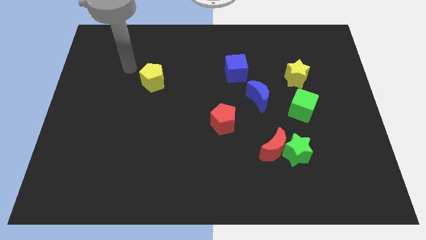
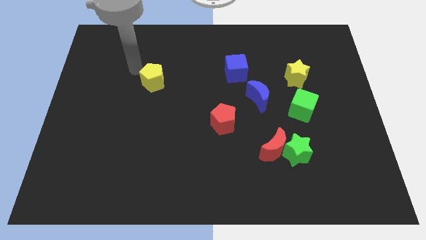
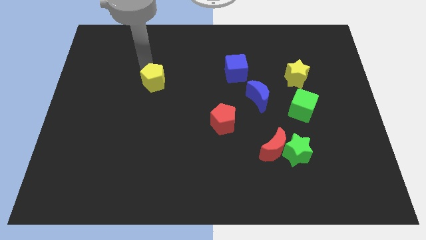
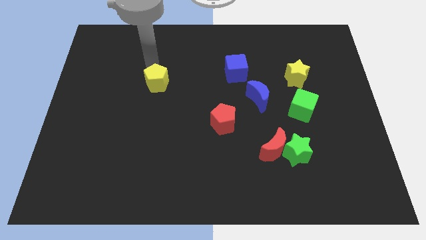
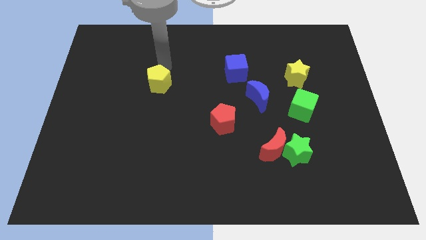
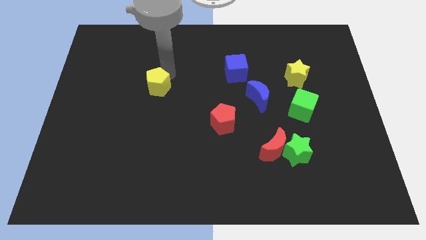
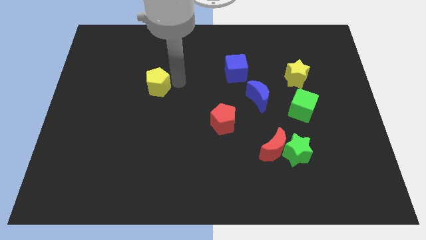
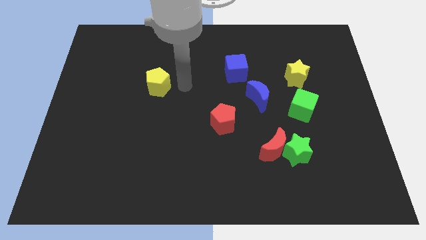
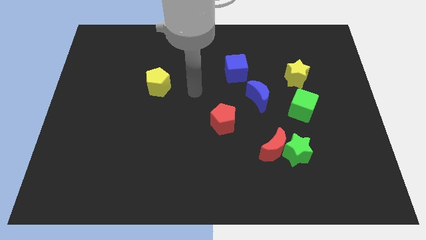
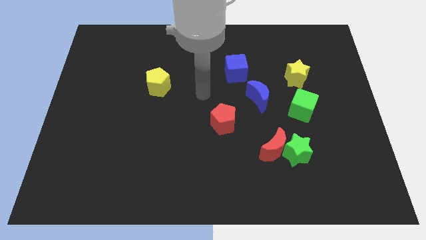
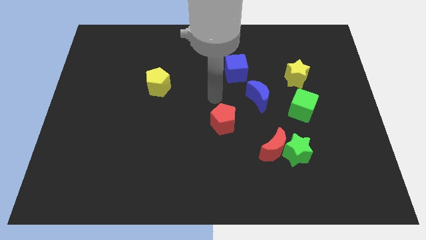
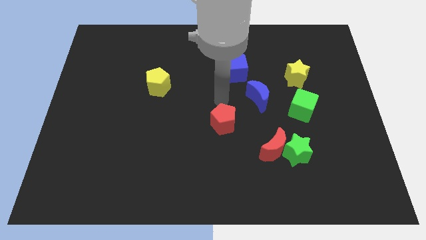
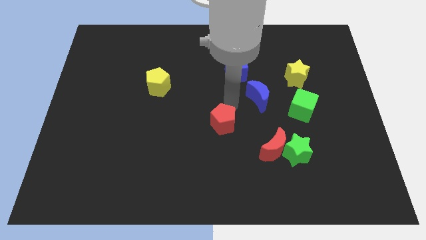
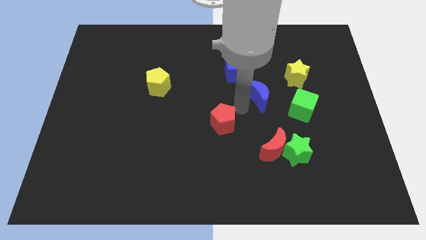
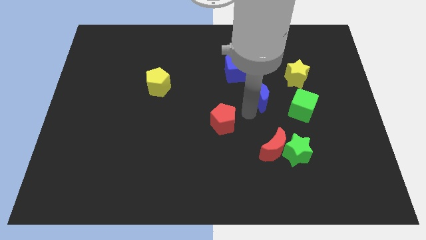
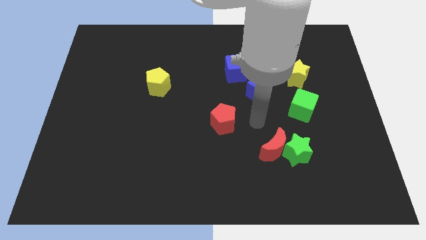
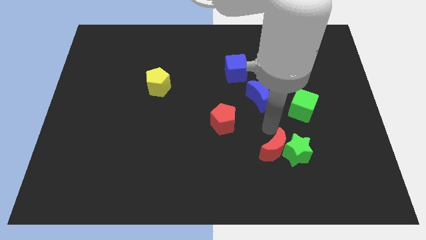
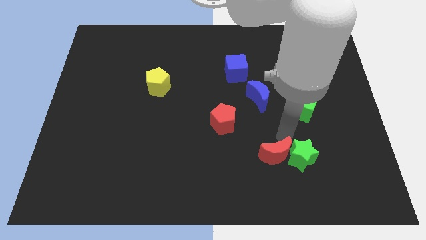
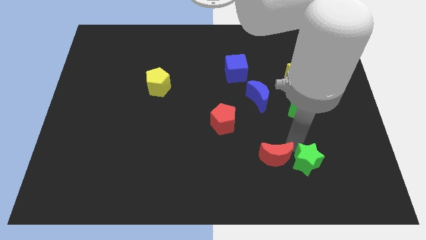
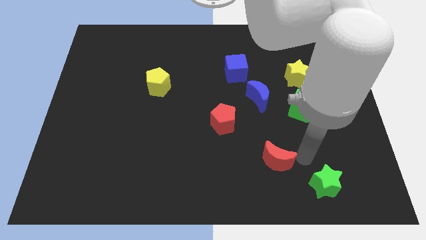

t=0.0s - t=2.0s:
pull the red moon apart from the green star

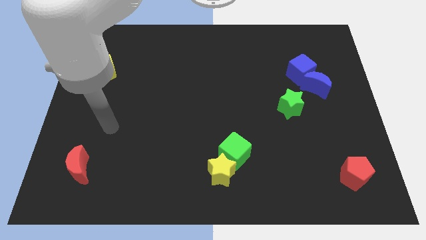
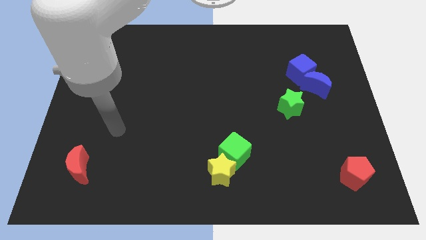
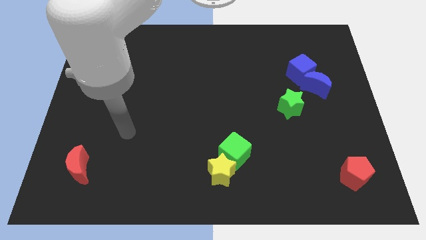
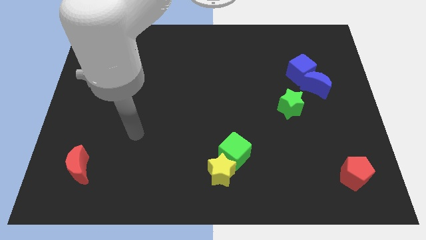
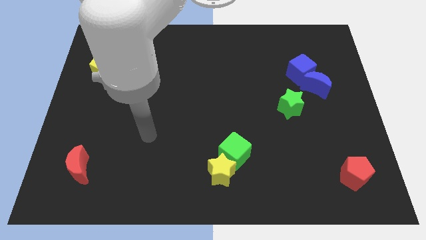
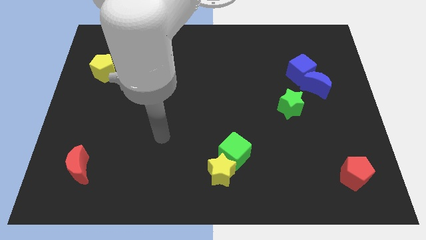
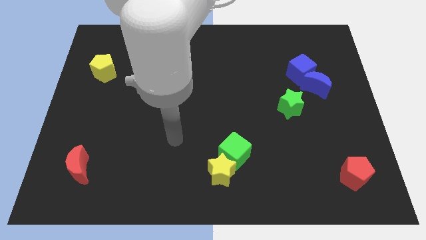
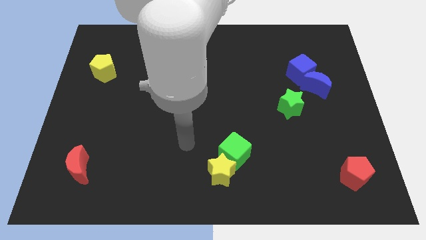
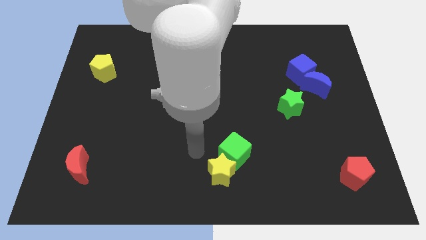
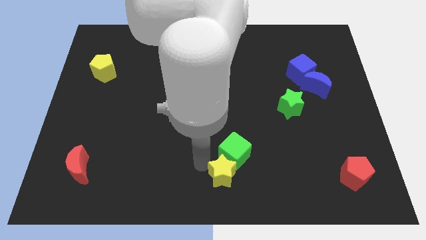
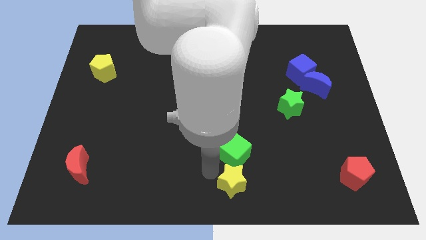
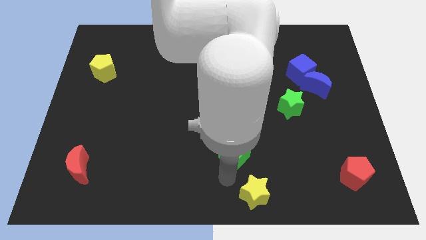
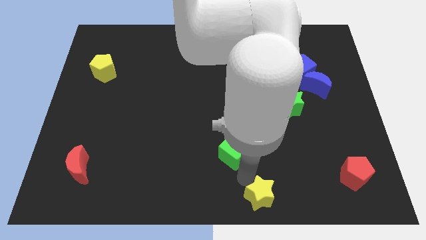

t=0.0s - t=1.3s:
pull the green cube apart from the yellow star

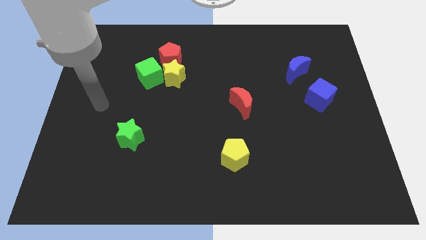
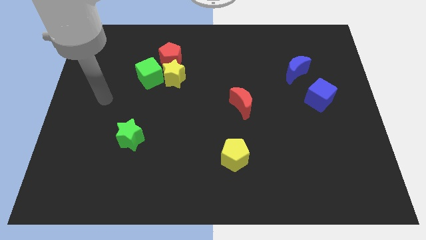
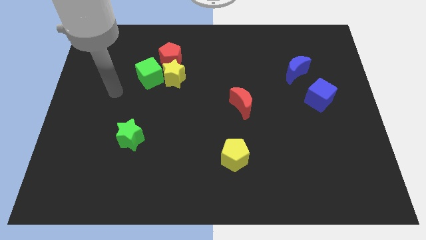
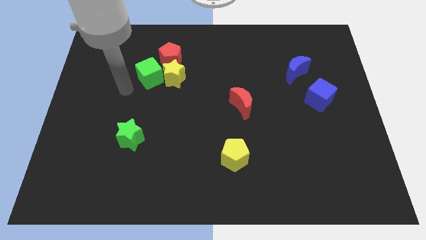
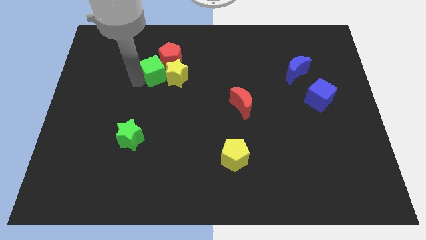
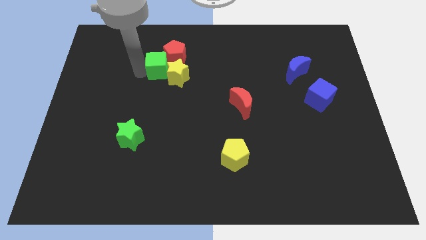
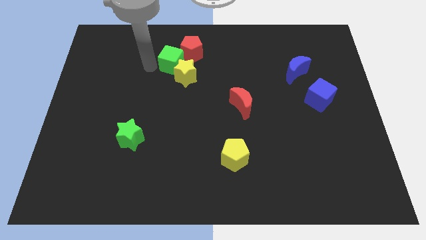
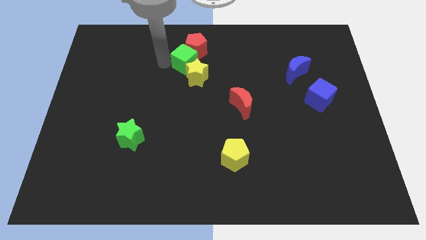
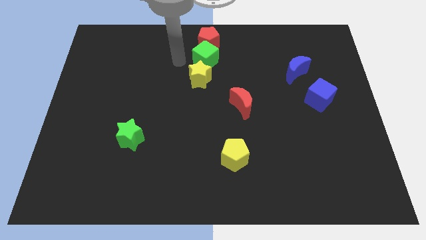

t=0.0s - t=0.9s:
pull the yellow star apart from the green cube and red pentagon

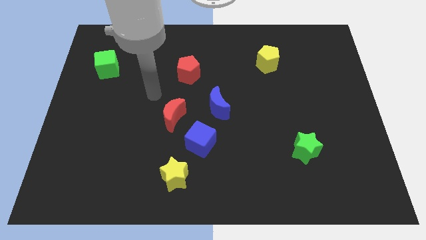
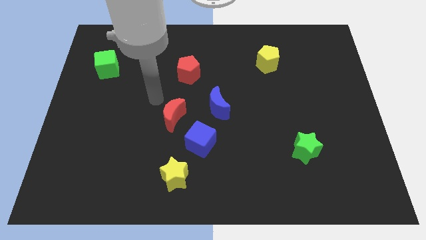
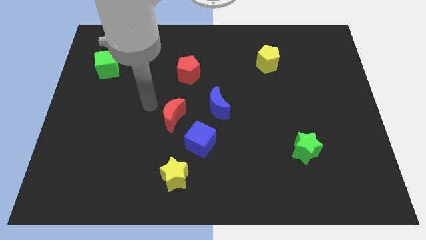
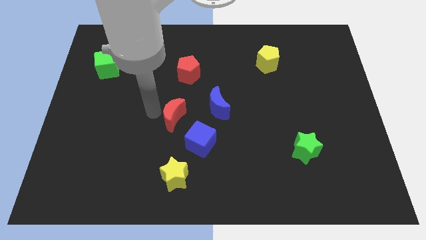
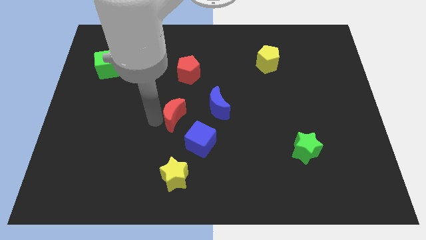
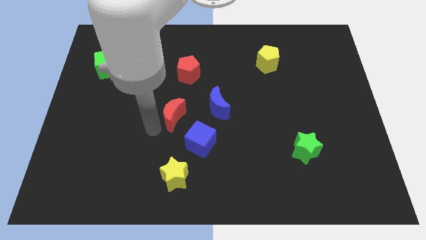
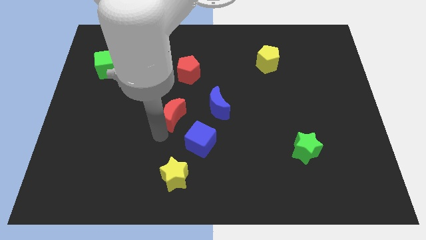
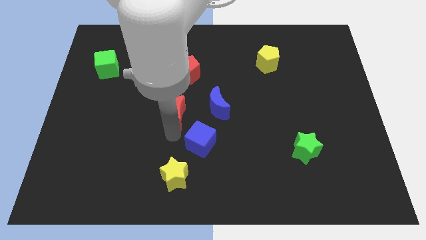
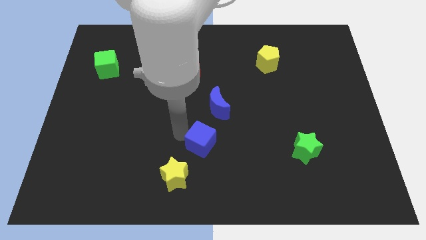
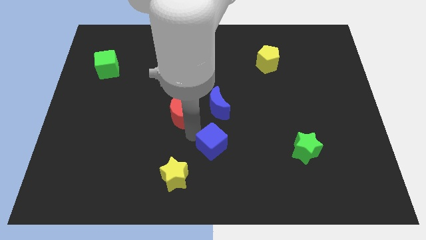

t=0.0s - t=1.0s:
pull the red moon apart from the blue cube

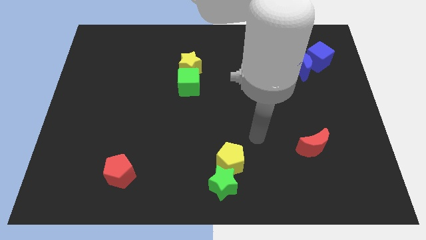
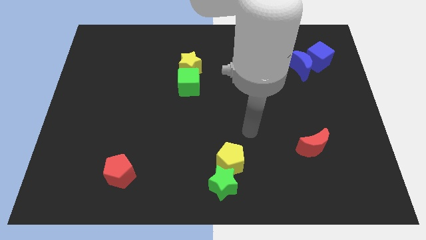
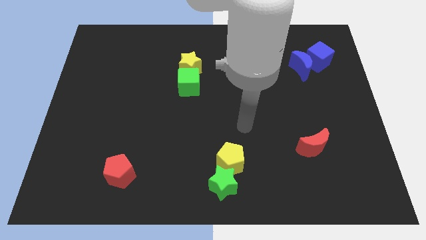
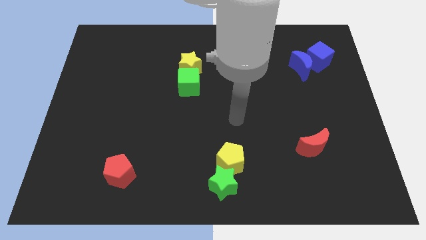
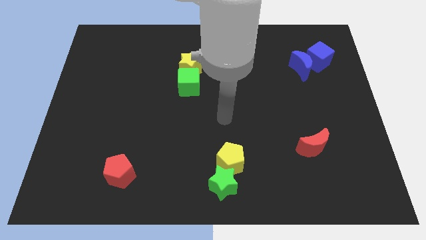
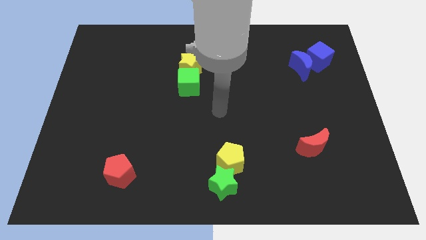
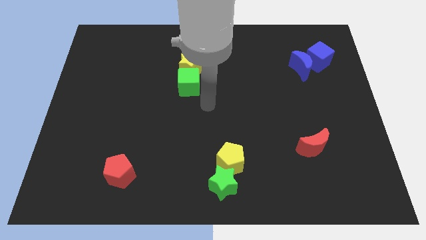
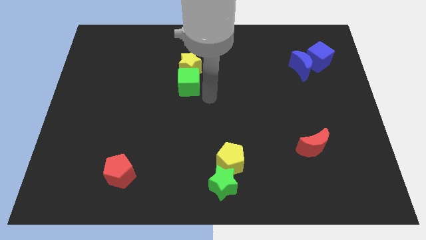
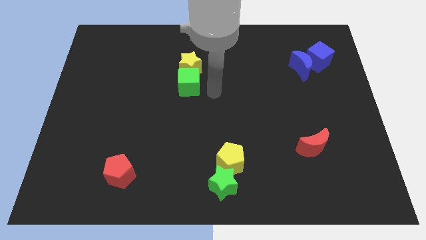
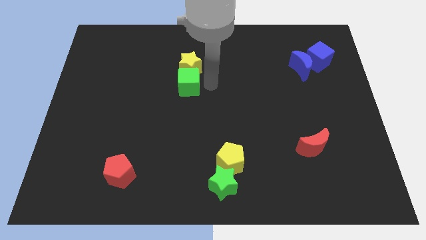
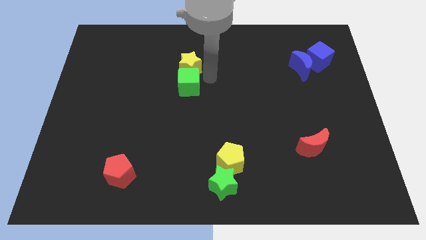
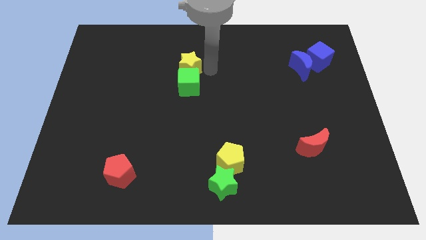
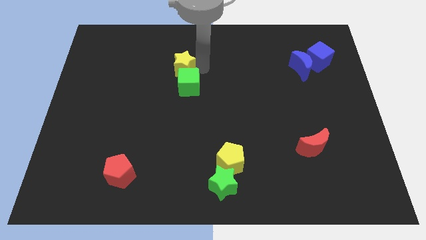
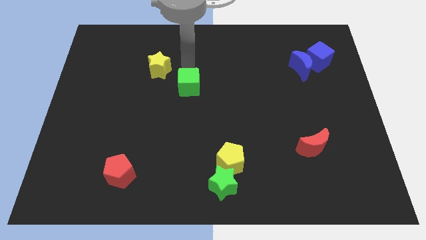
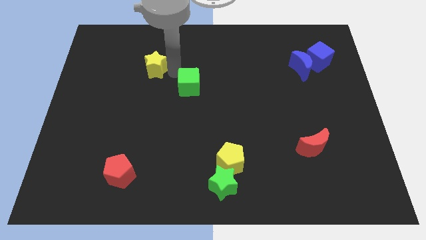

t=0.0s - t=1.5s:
separate the green cube from the yellow star

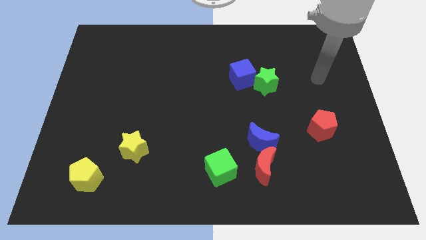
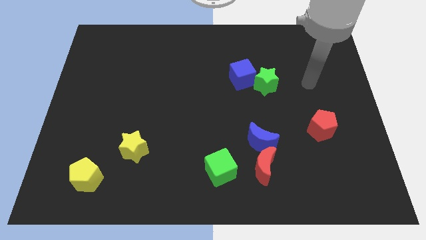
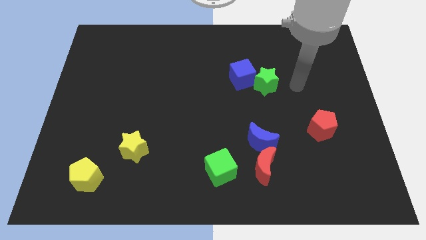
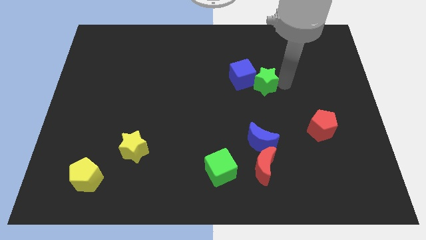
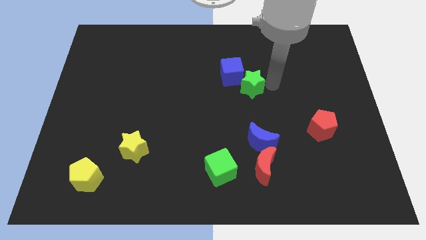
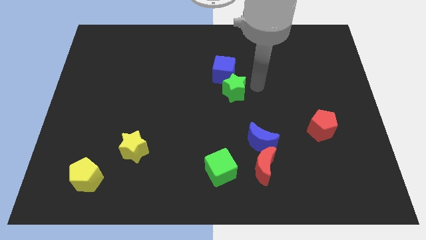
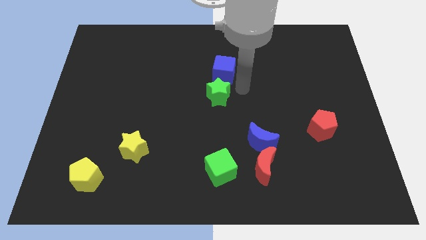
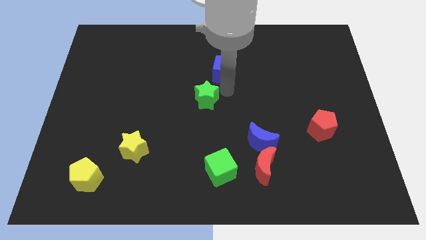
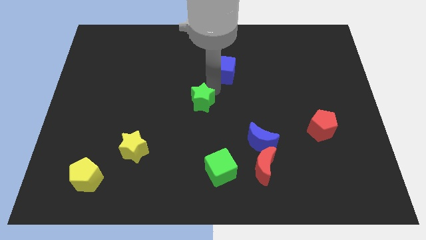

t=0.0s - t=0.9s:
move the blue cube away from the green star

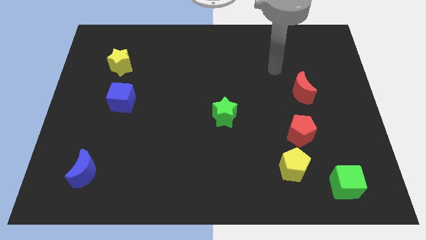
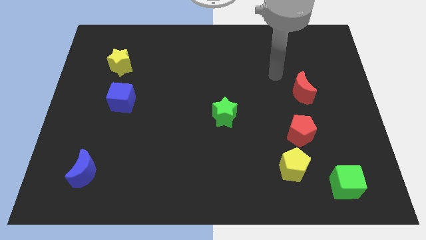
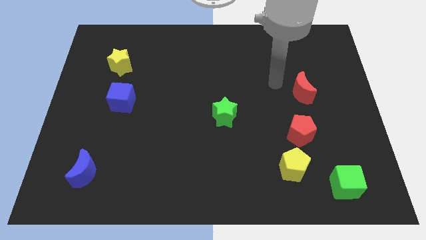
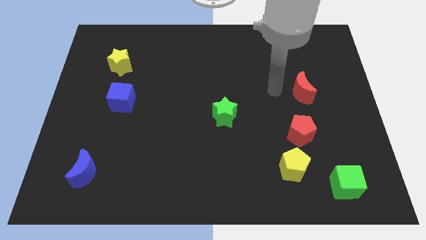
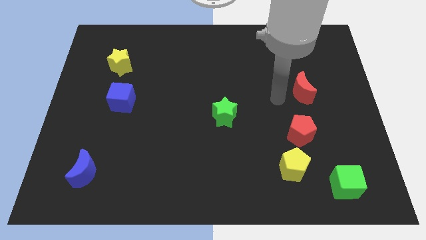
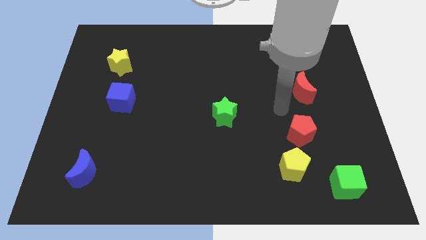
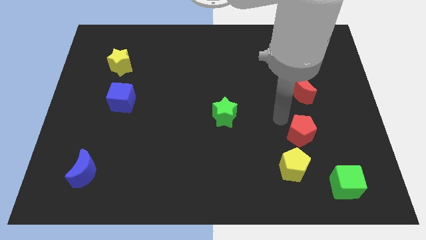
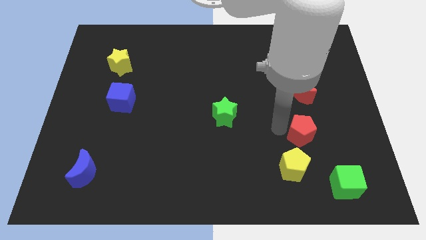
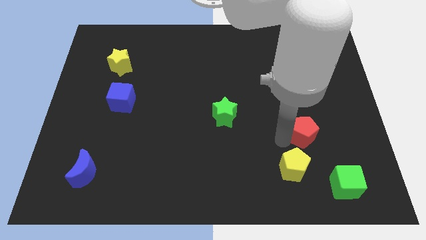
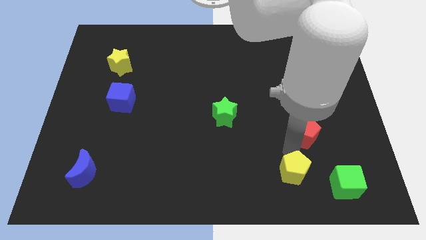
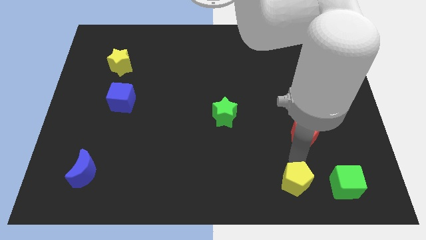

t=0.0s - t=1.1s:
pull the red pentagon apart from the yellow pentagon

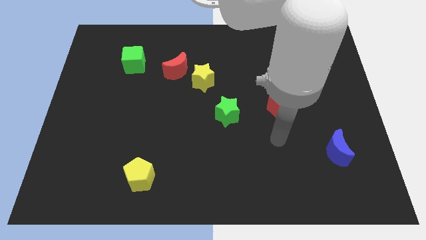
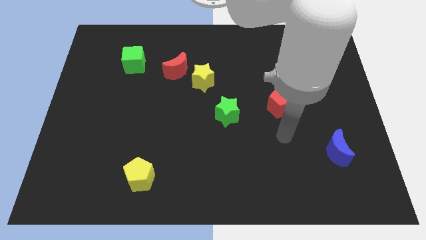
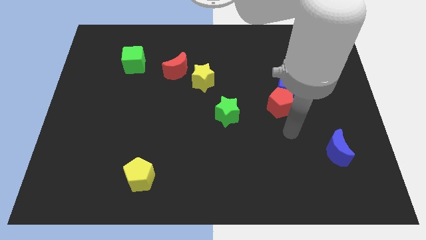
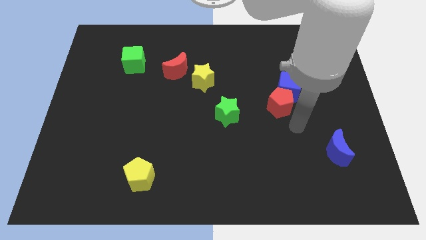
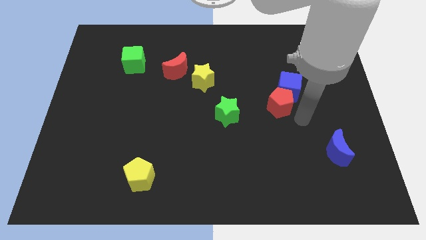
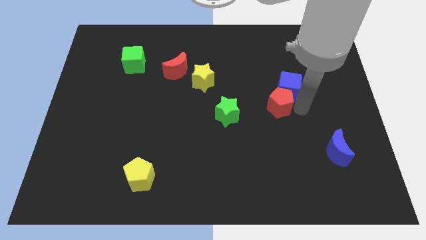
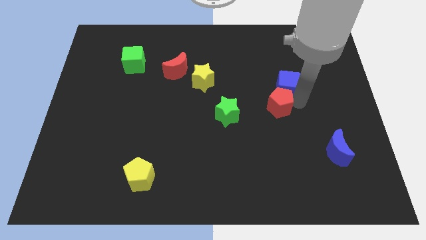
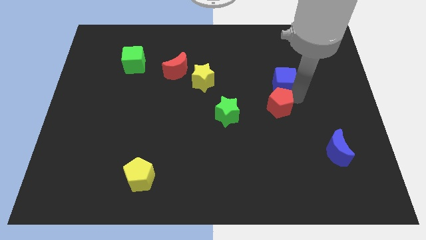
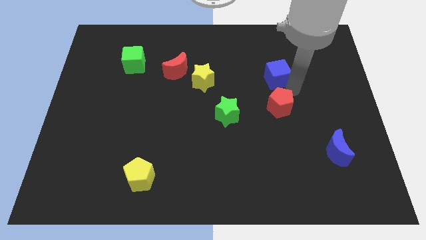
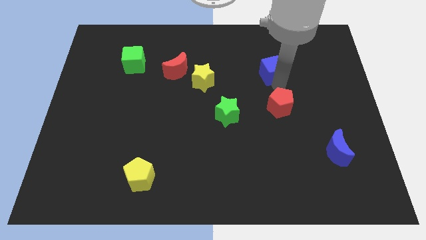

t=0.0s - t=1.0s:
move the red pentagon away from the blue cube
